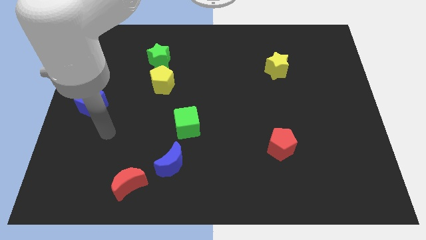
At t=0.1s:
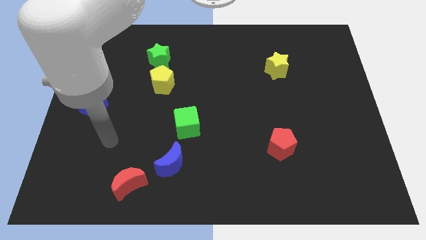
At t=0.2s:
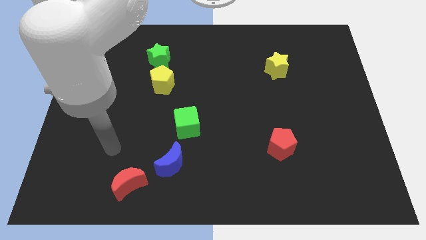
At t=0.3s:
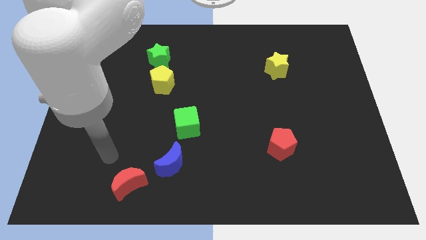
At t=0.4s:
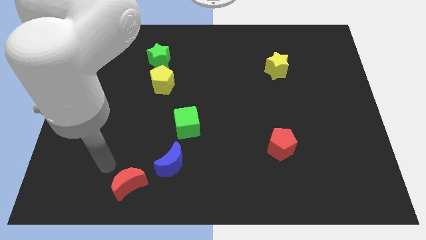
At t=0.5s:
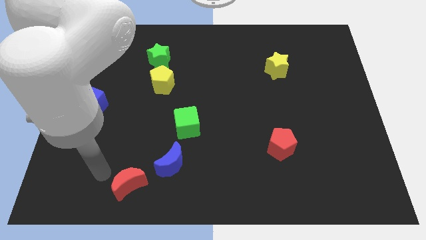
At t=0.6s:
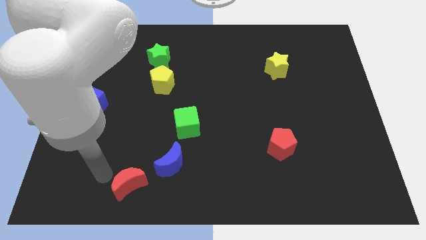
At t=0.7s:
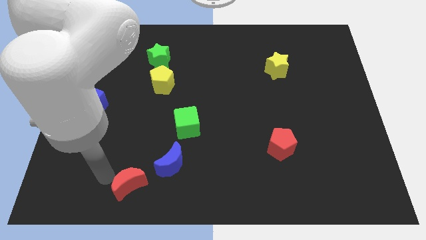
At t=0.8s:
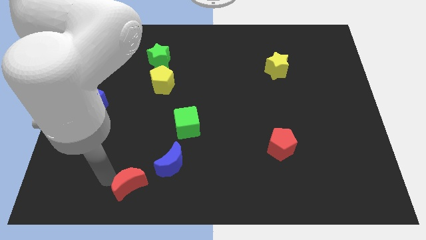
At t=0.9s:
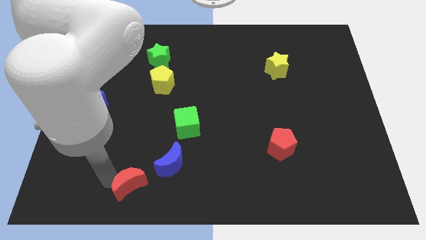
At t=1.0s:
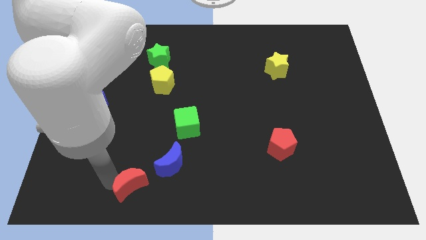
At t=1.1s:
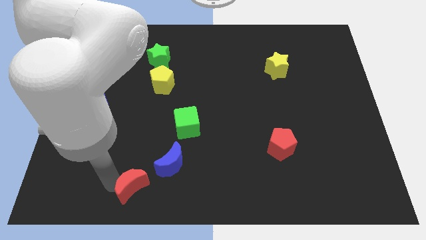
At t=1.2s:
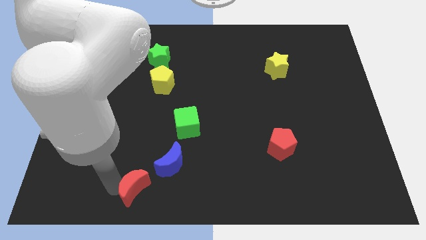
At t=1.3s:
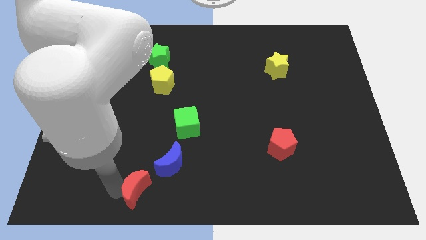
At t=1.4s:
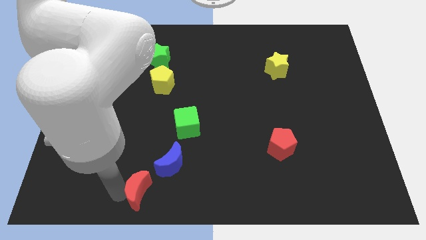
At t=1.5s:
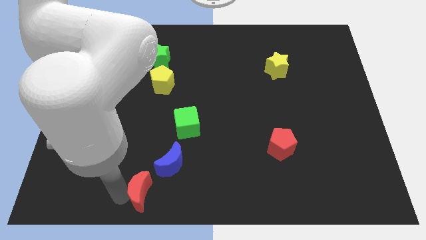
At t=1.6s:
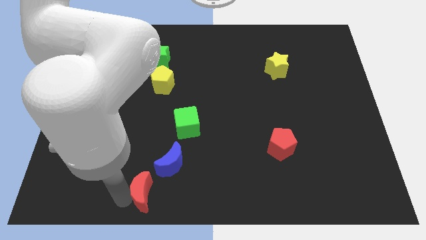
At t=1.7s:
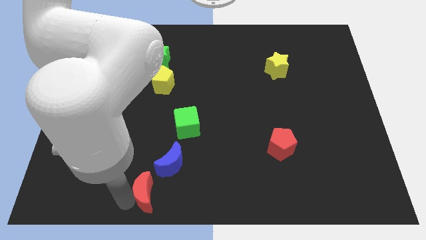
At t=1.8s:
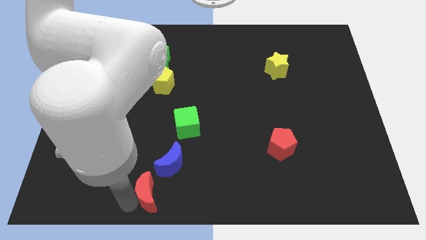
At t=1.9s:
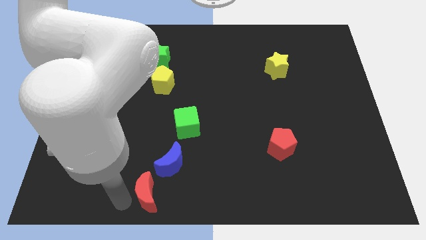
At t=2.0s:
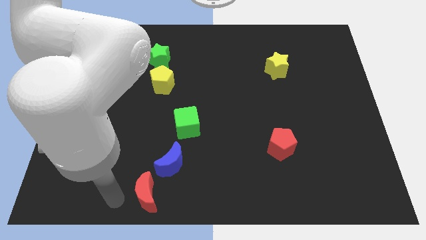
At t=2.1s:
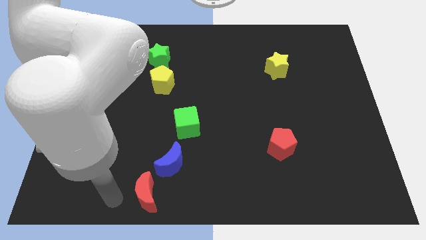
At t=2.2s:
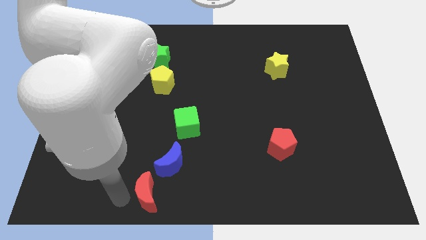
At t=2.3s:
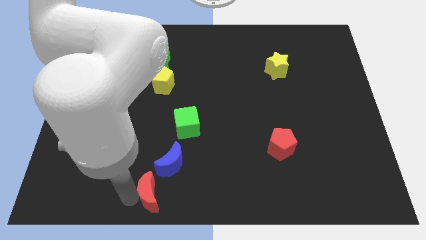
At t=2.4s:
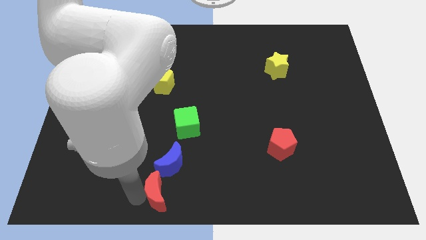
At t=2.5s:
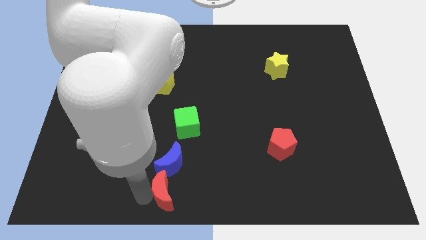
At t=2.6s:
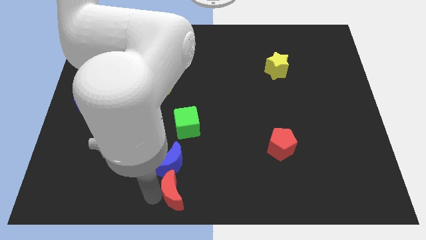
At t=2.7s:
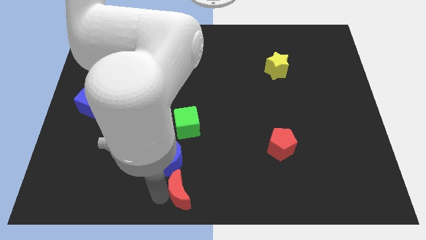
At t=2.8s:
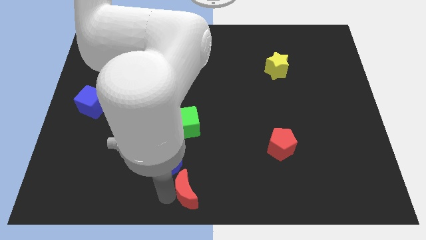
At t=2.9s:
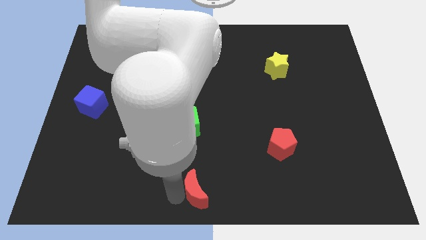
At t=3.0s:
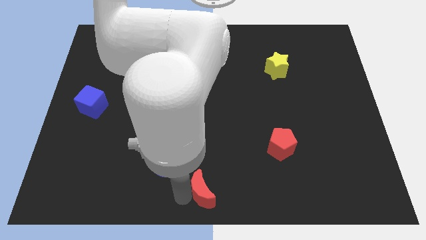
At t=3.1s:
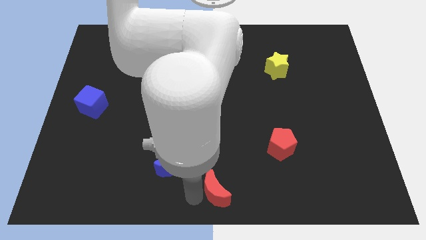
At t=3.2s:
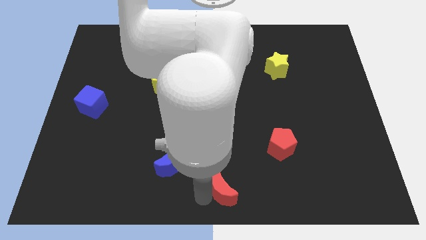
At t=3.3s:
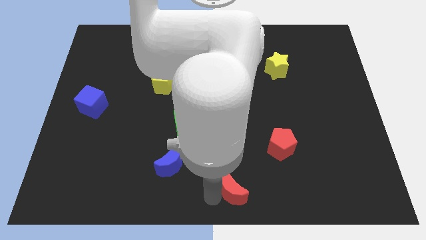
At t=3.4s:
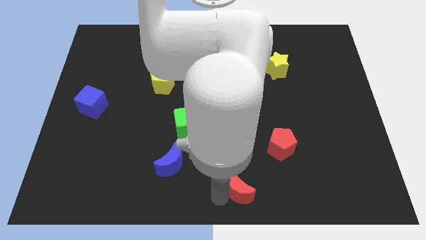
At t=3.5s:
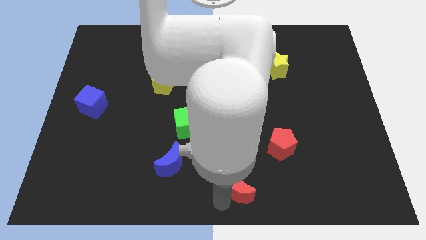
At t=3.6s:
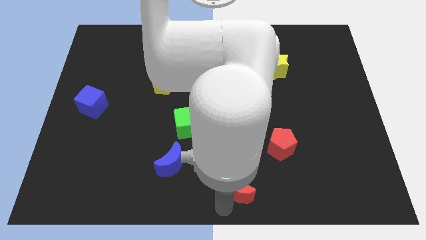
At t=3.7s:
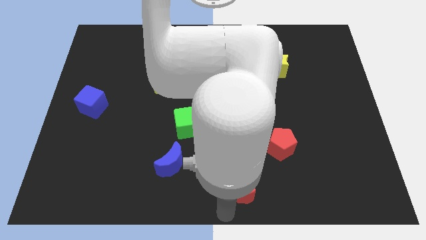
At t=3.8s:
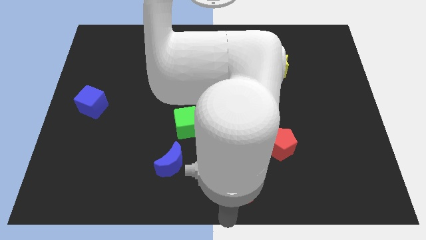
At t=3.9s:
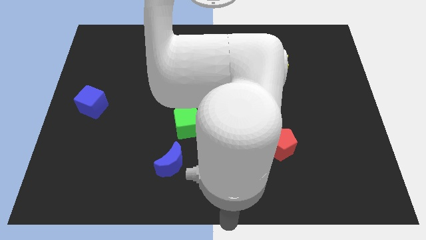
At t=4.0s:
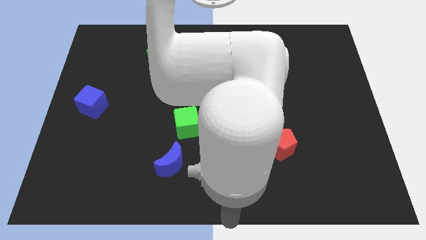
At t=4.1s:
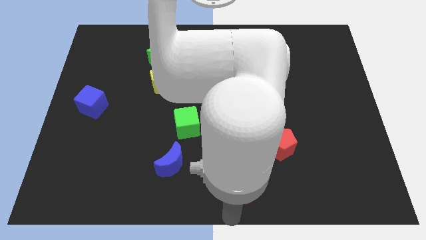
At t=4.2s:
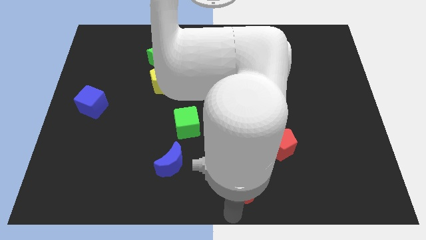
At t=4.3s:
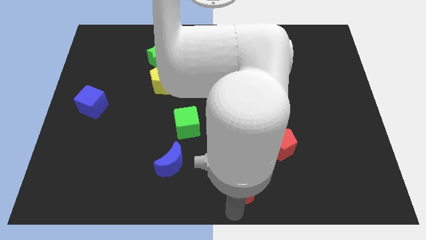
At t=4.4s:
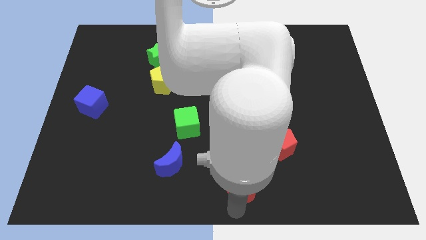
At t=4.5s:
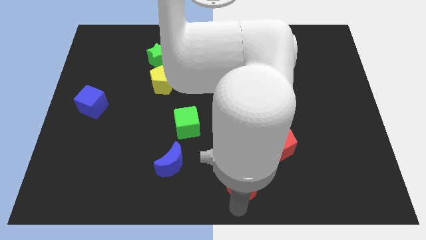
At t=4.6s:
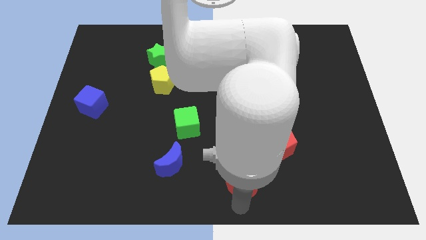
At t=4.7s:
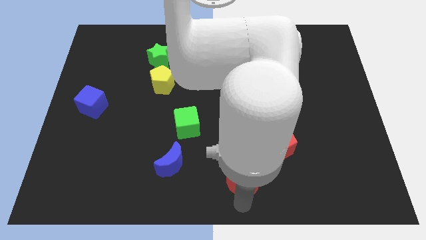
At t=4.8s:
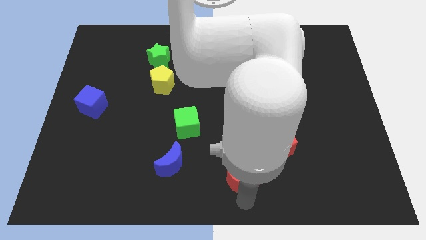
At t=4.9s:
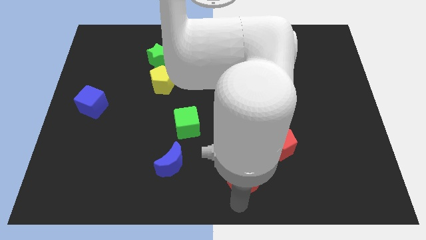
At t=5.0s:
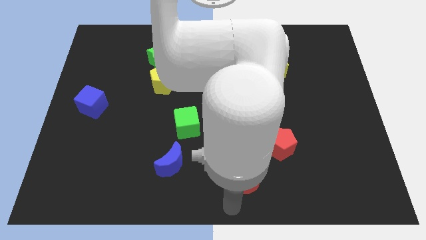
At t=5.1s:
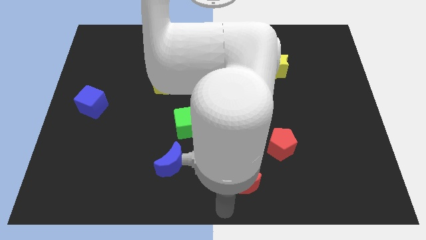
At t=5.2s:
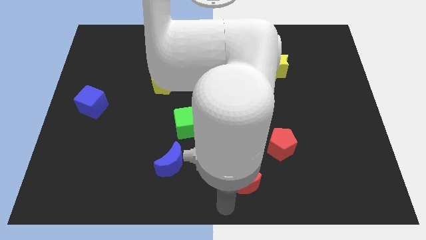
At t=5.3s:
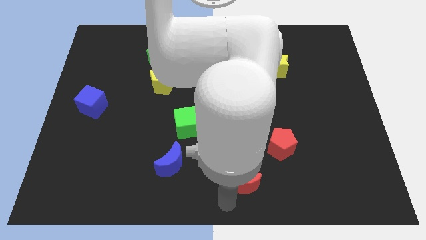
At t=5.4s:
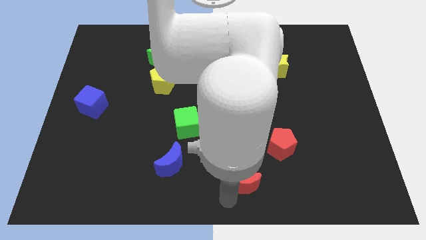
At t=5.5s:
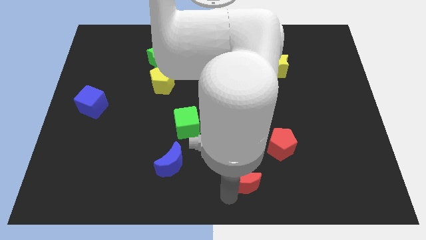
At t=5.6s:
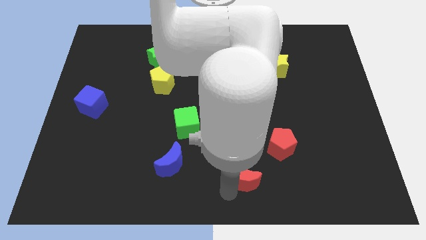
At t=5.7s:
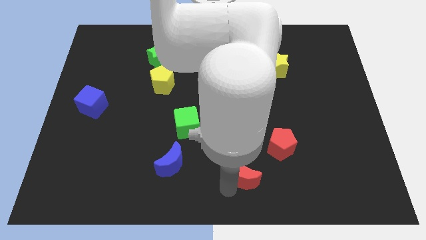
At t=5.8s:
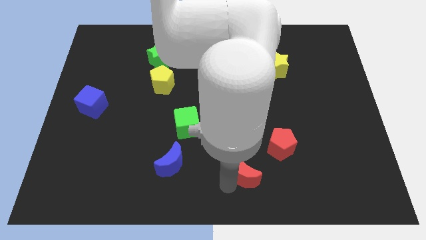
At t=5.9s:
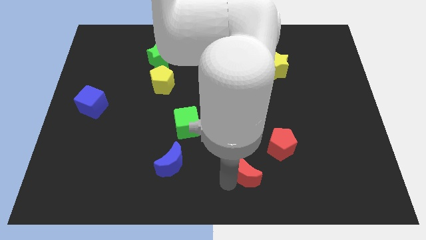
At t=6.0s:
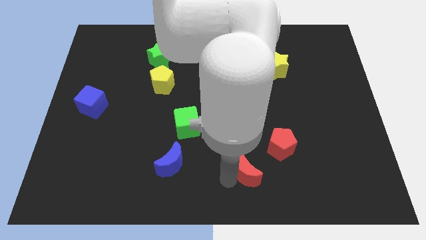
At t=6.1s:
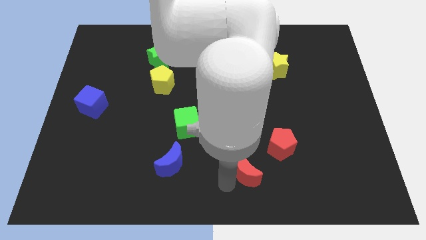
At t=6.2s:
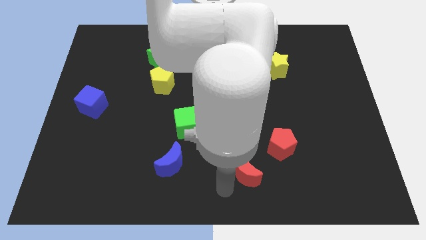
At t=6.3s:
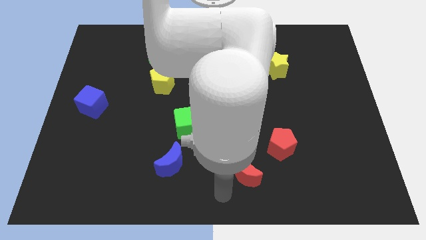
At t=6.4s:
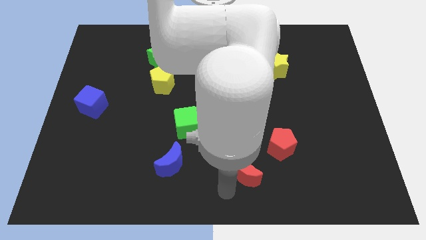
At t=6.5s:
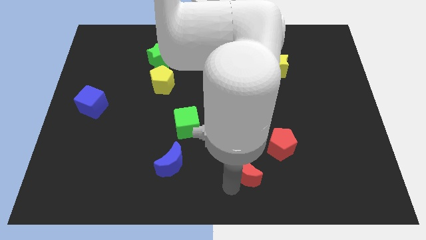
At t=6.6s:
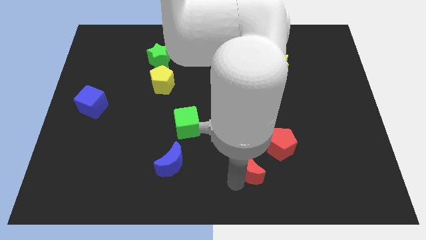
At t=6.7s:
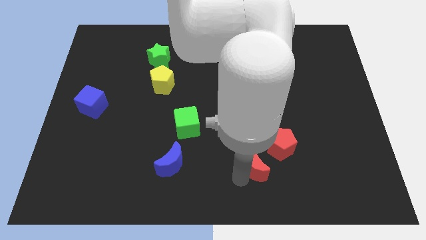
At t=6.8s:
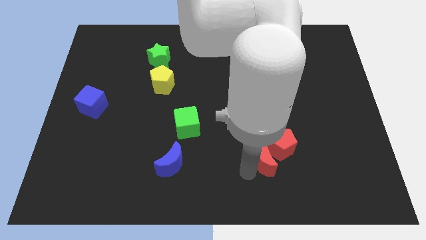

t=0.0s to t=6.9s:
push the red moon close to the red pentagon
